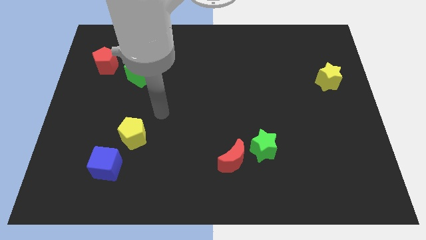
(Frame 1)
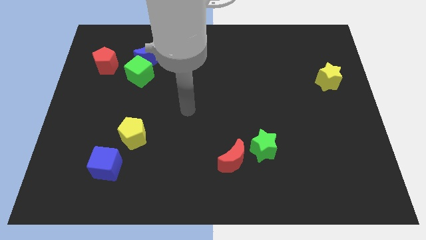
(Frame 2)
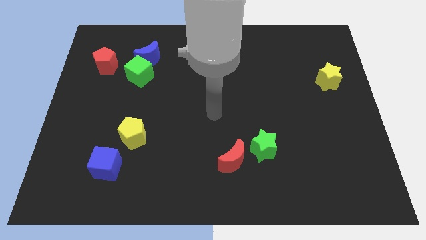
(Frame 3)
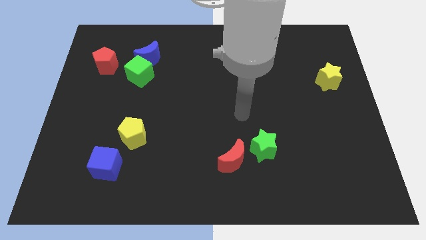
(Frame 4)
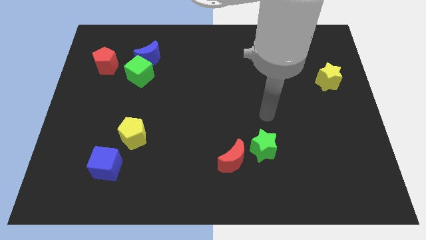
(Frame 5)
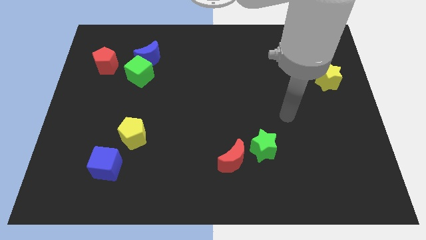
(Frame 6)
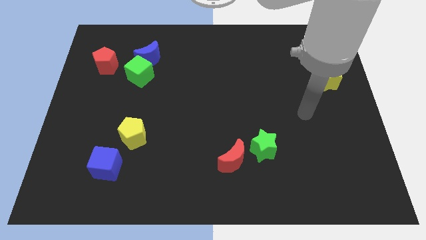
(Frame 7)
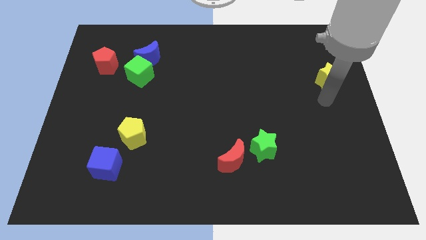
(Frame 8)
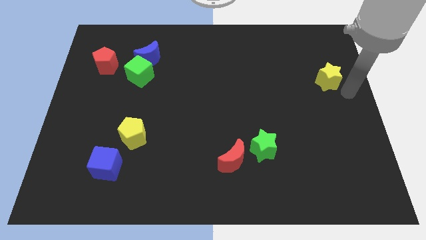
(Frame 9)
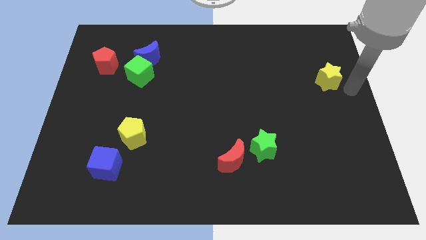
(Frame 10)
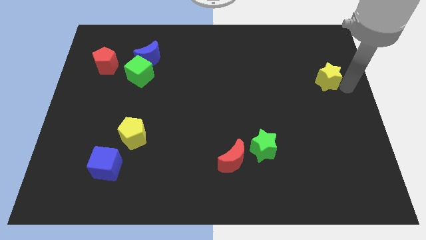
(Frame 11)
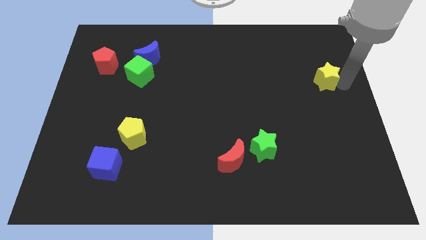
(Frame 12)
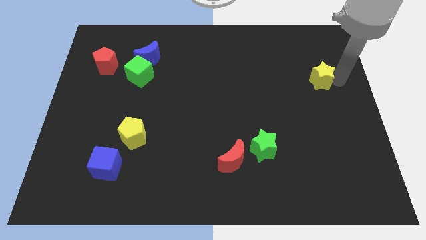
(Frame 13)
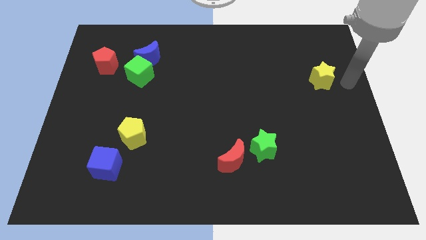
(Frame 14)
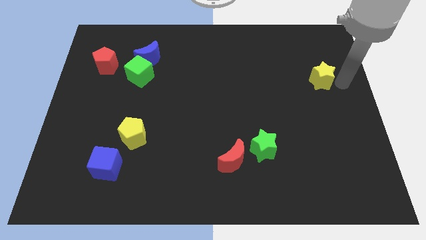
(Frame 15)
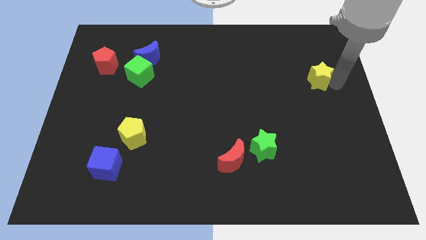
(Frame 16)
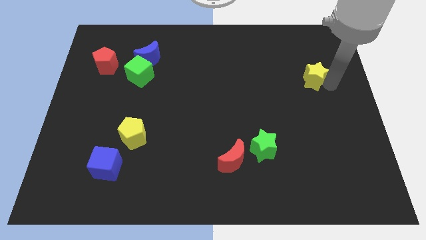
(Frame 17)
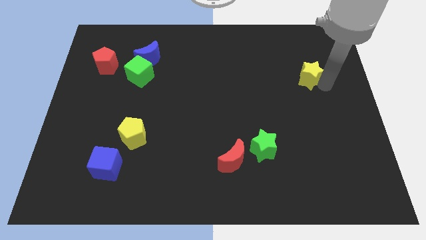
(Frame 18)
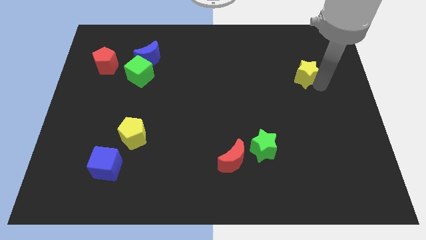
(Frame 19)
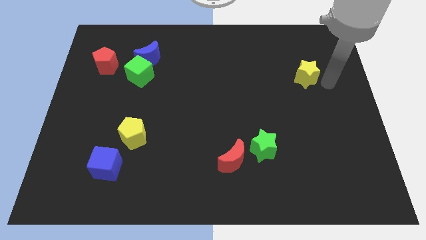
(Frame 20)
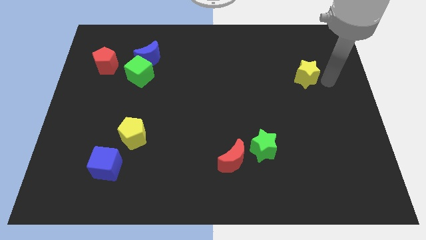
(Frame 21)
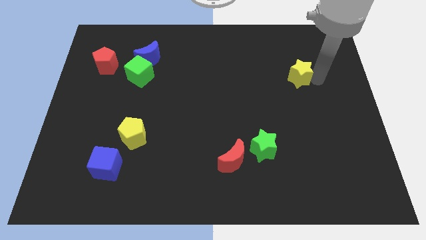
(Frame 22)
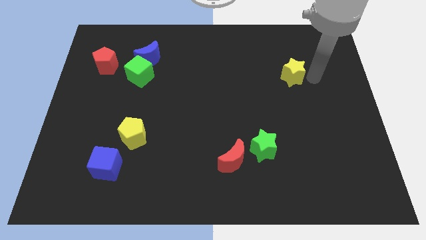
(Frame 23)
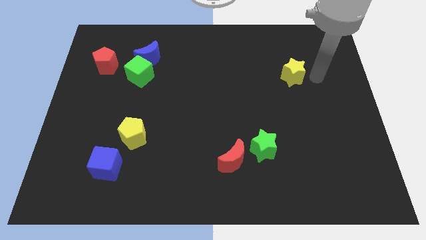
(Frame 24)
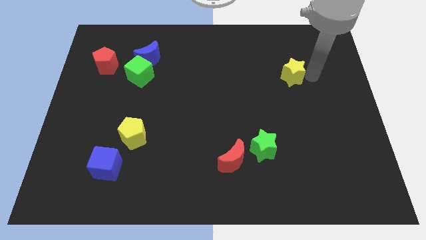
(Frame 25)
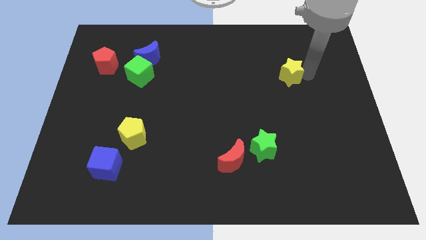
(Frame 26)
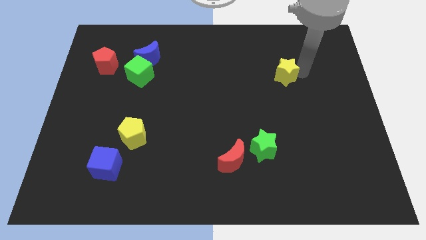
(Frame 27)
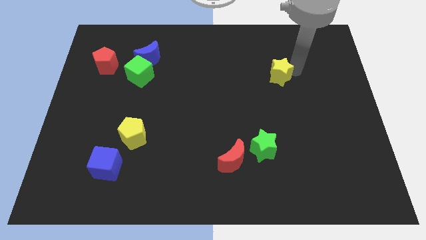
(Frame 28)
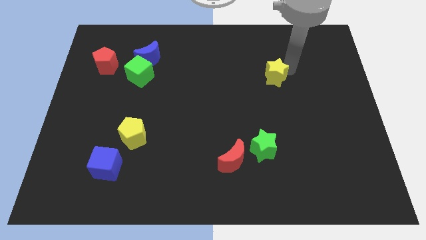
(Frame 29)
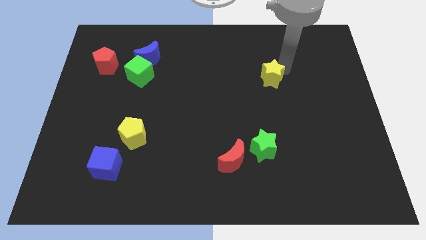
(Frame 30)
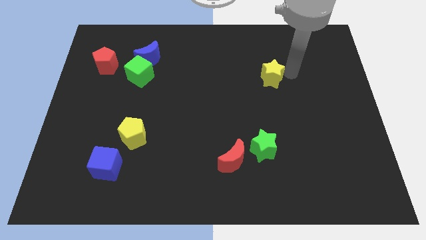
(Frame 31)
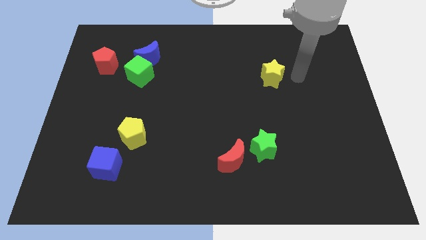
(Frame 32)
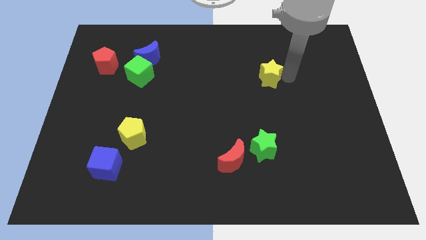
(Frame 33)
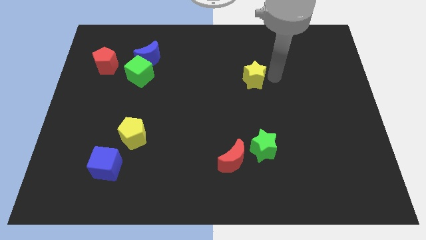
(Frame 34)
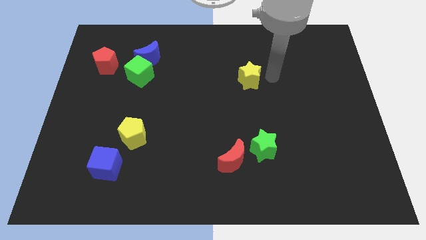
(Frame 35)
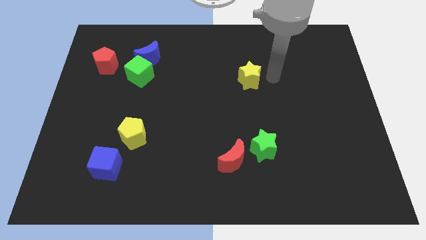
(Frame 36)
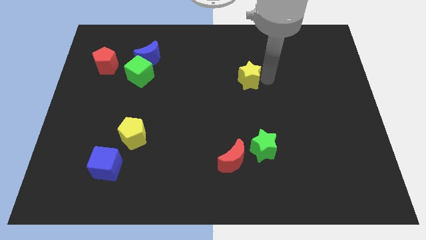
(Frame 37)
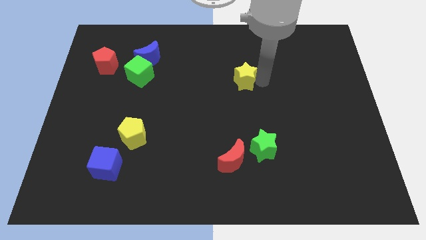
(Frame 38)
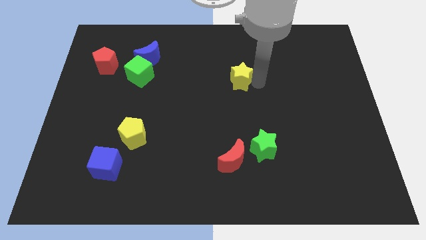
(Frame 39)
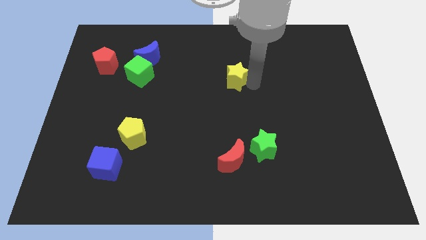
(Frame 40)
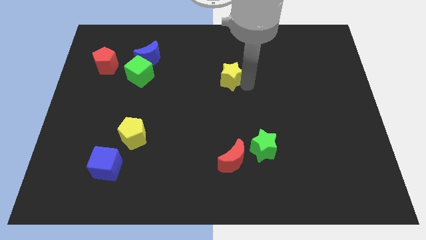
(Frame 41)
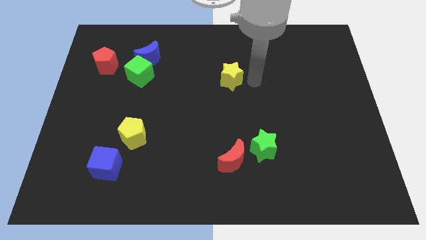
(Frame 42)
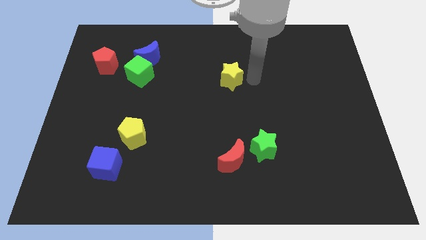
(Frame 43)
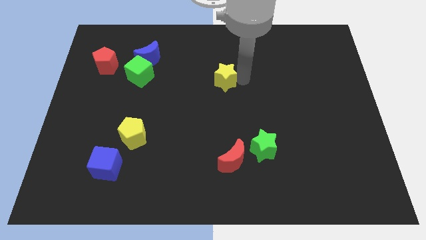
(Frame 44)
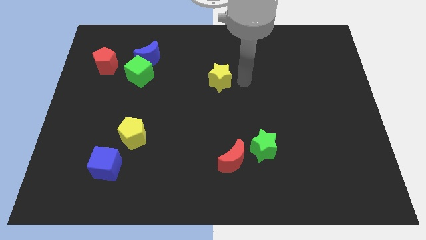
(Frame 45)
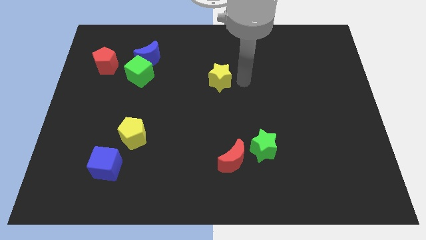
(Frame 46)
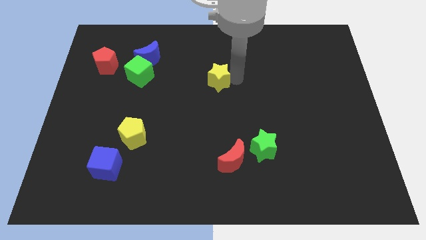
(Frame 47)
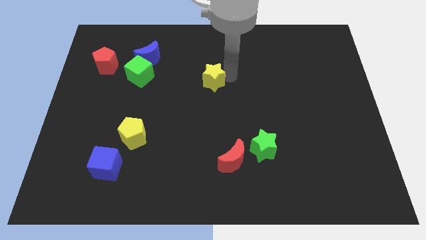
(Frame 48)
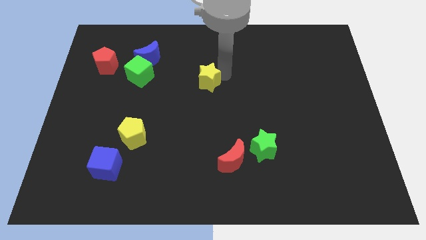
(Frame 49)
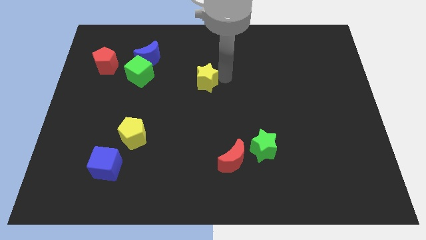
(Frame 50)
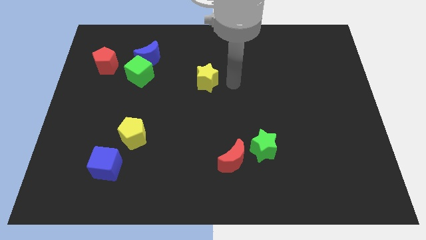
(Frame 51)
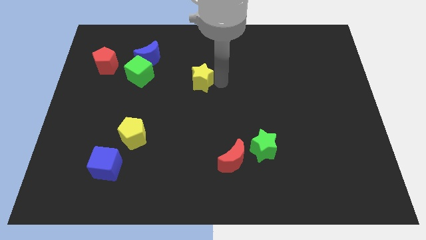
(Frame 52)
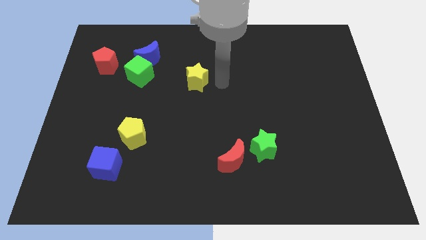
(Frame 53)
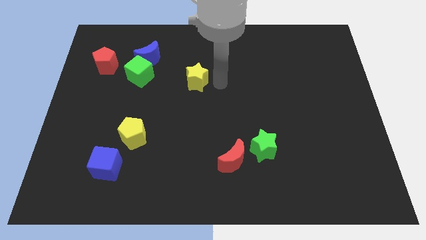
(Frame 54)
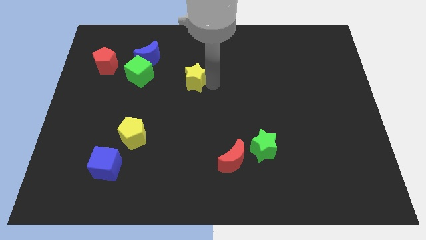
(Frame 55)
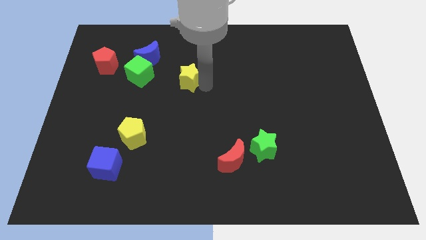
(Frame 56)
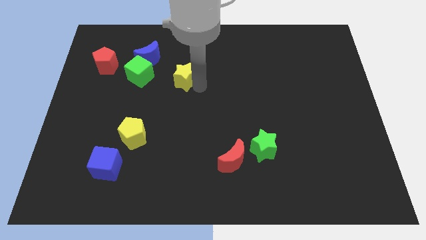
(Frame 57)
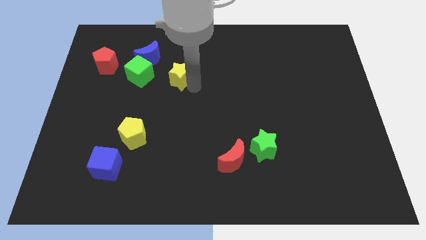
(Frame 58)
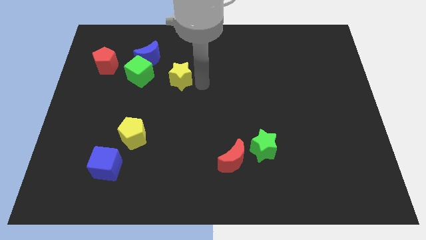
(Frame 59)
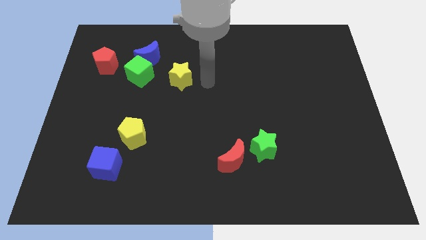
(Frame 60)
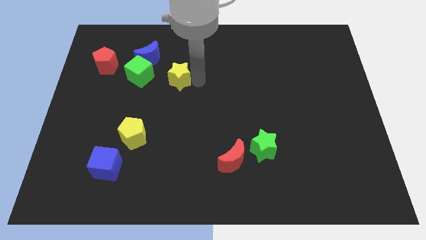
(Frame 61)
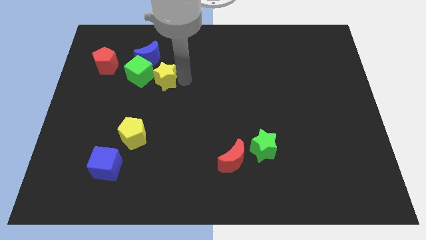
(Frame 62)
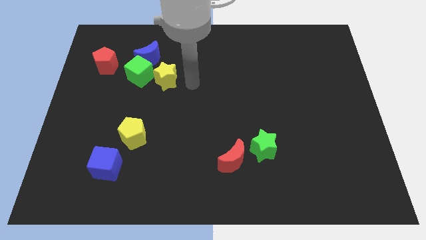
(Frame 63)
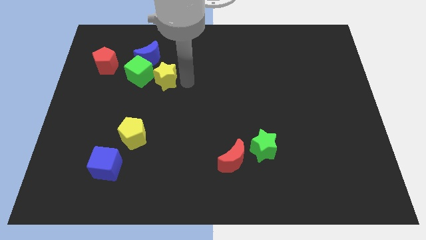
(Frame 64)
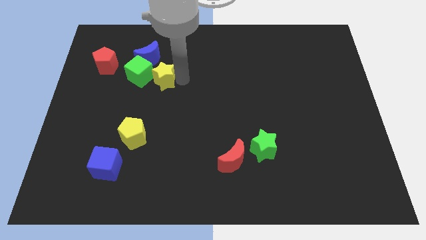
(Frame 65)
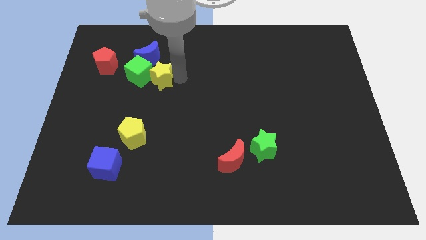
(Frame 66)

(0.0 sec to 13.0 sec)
move the yellow star towards the green cube

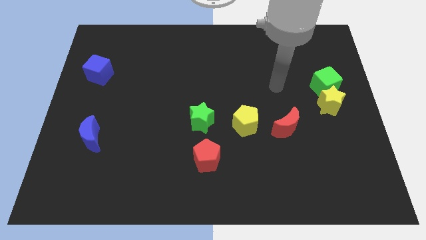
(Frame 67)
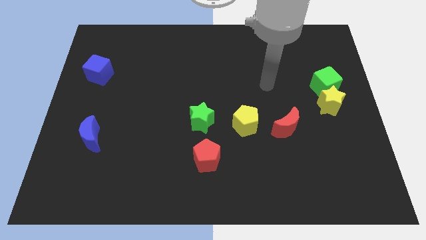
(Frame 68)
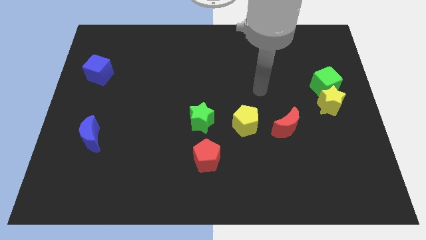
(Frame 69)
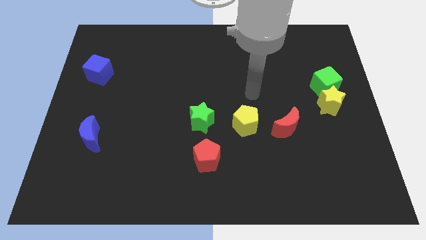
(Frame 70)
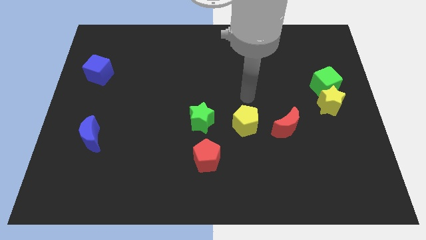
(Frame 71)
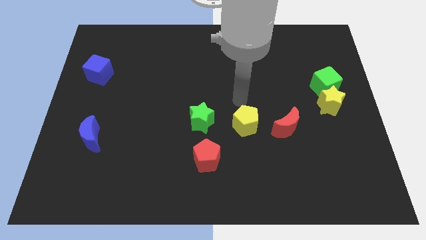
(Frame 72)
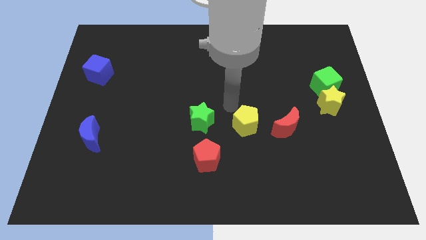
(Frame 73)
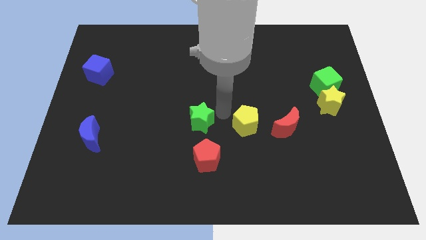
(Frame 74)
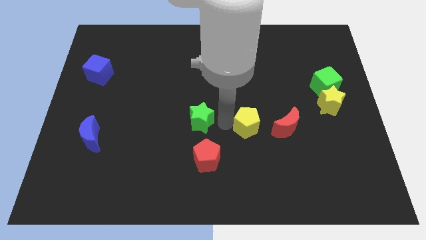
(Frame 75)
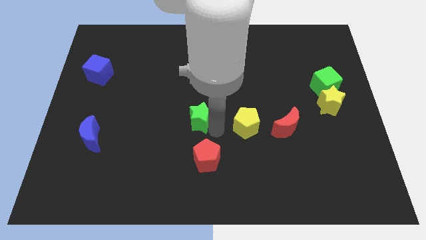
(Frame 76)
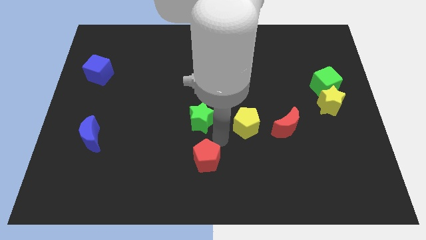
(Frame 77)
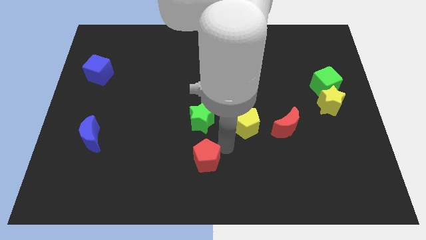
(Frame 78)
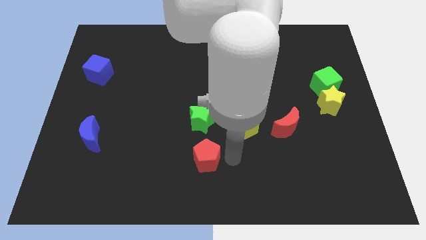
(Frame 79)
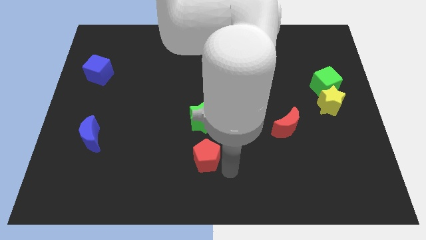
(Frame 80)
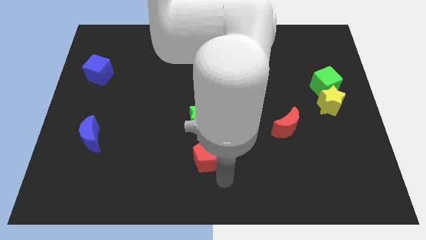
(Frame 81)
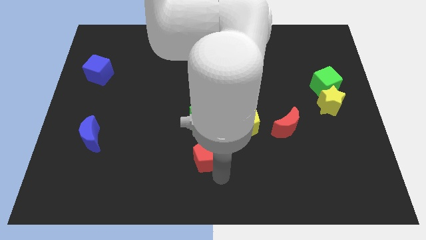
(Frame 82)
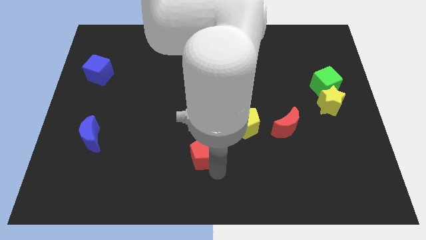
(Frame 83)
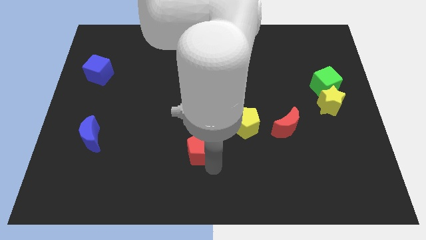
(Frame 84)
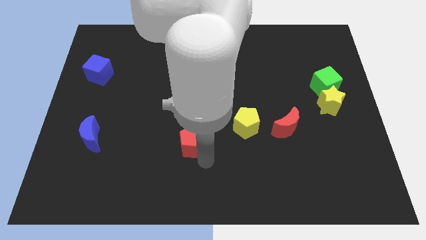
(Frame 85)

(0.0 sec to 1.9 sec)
move the red pentagon next to the green star
